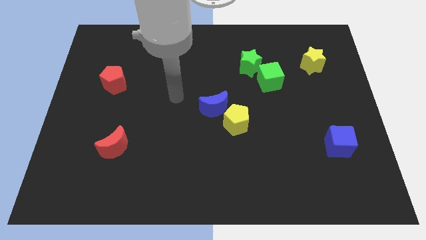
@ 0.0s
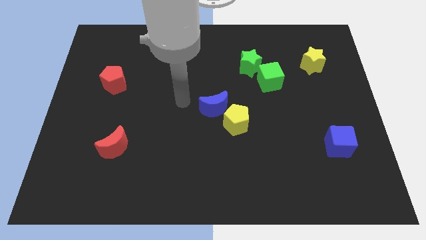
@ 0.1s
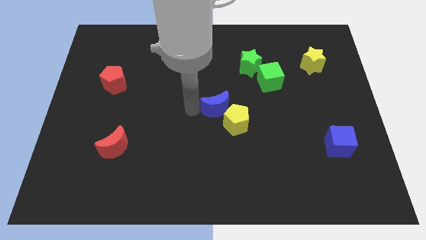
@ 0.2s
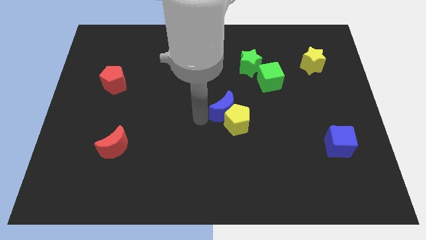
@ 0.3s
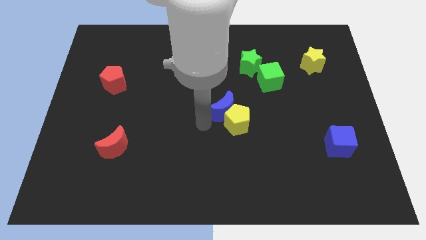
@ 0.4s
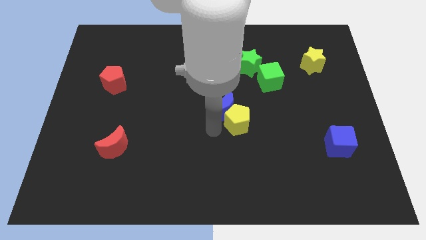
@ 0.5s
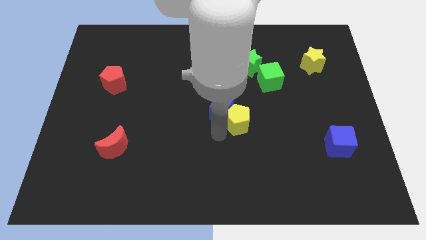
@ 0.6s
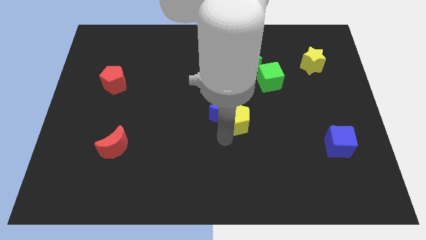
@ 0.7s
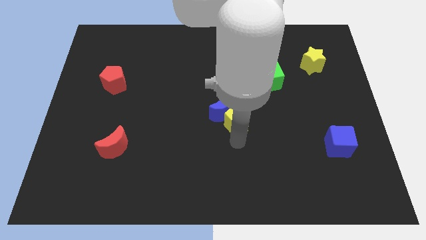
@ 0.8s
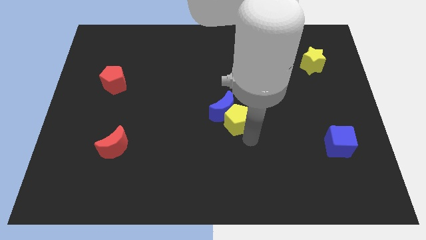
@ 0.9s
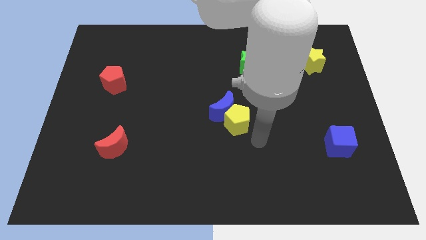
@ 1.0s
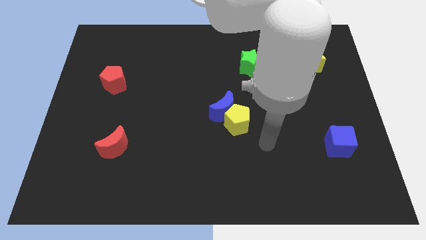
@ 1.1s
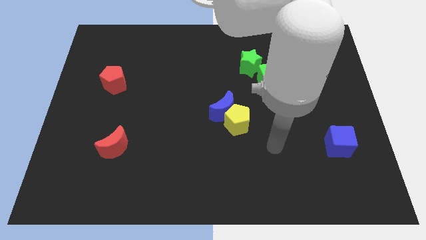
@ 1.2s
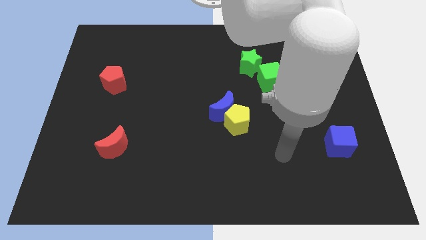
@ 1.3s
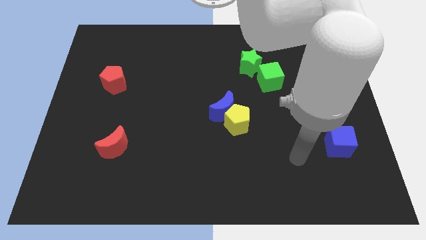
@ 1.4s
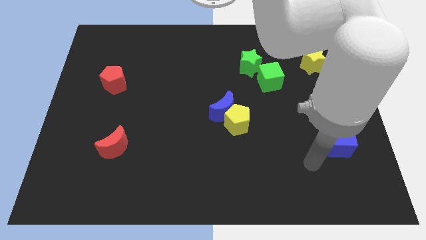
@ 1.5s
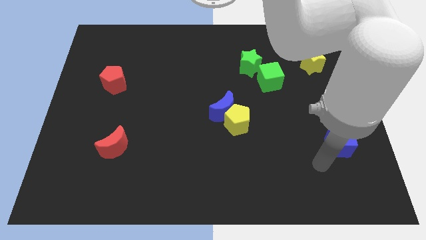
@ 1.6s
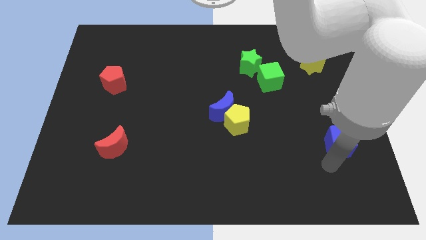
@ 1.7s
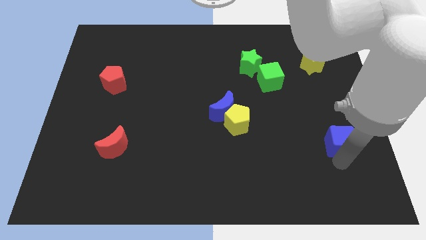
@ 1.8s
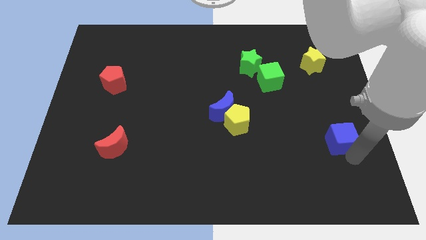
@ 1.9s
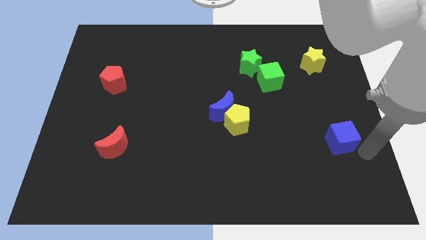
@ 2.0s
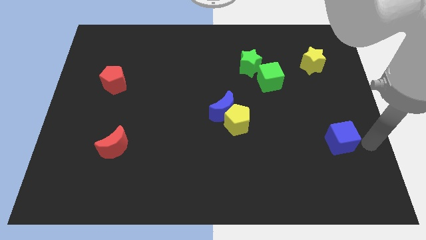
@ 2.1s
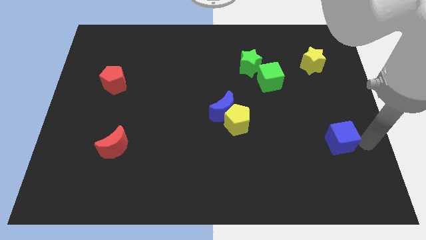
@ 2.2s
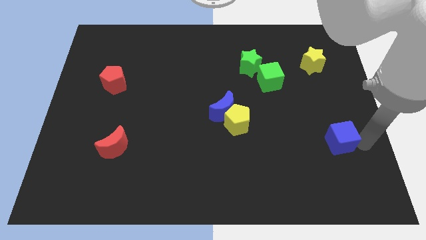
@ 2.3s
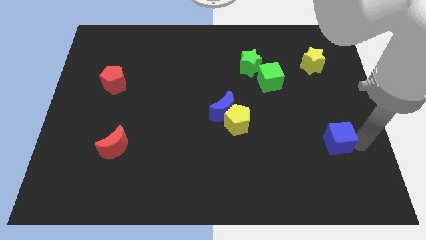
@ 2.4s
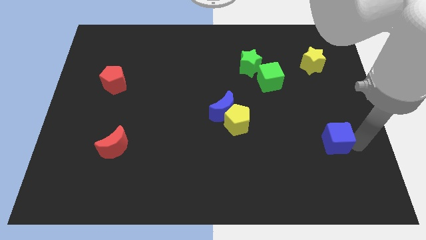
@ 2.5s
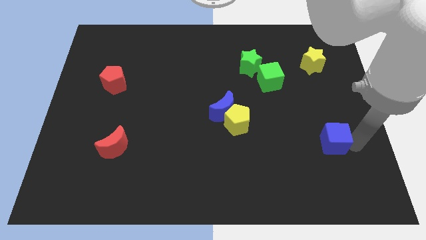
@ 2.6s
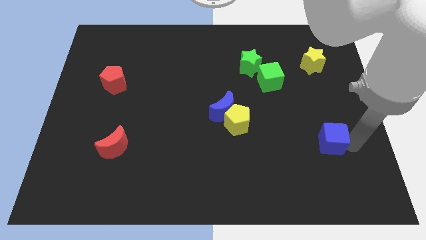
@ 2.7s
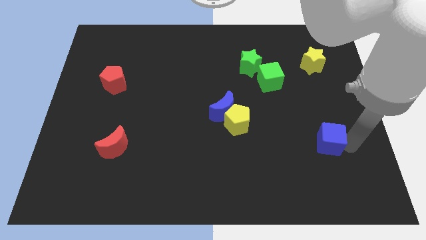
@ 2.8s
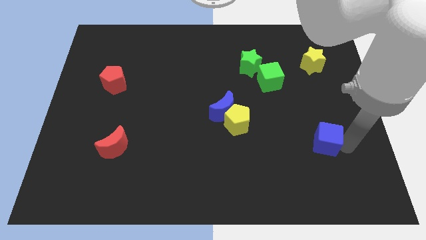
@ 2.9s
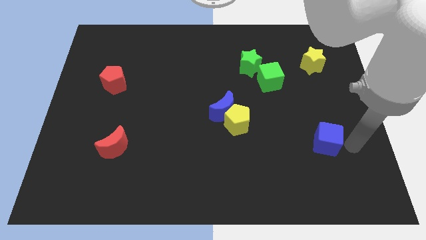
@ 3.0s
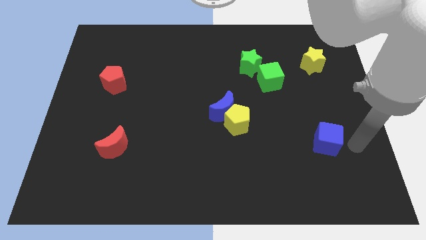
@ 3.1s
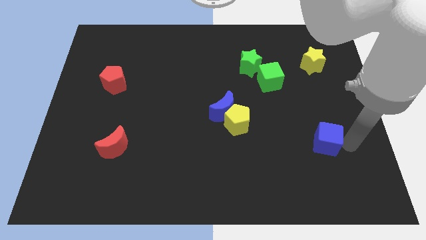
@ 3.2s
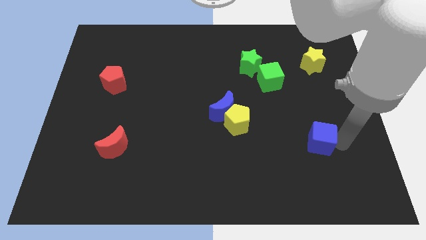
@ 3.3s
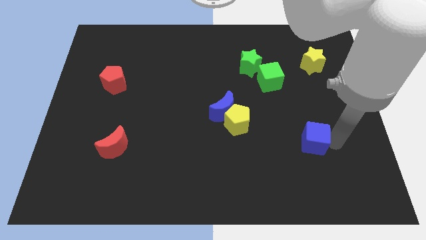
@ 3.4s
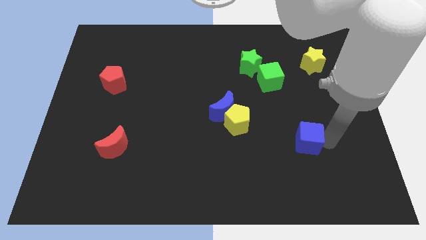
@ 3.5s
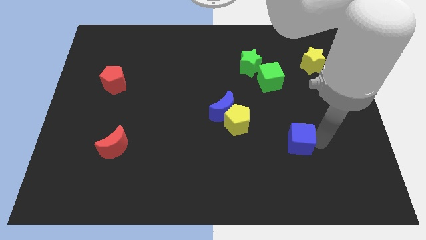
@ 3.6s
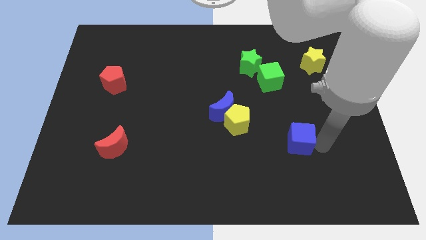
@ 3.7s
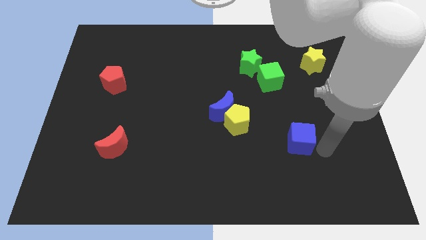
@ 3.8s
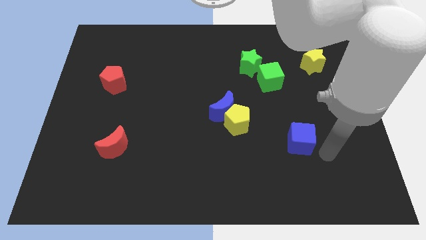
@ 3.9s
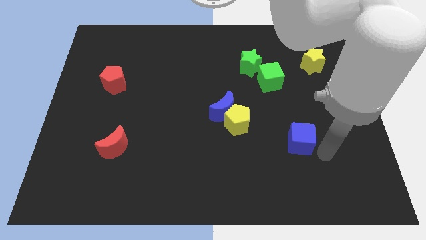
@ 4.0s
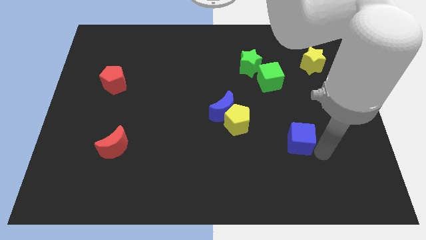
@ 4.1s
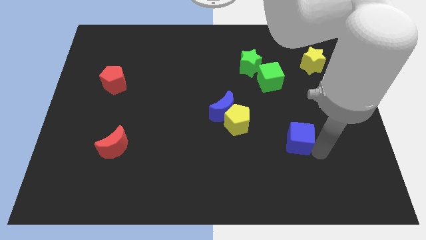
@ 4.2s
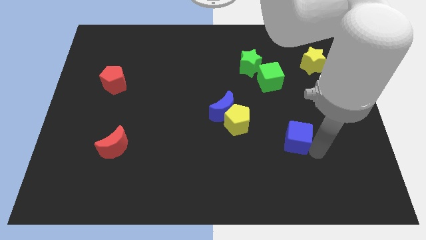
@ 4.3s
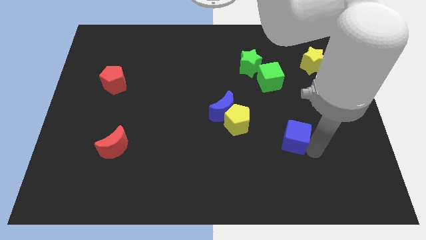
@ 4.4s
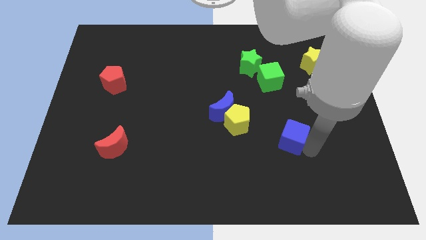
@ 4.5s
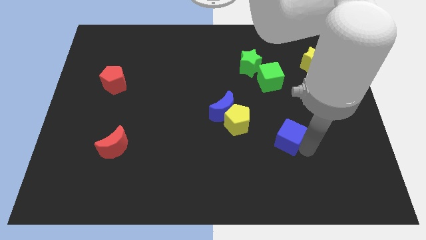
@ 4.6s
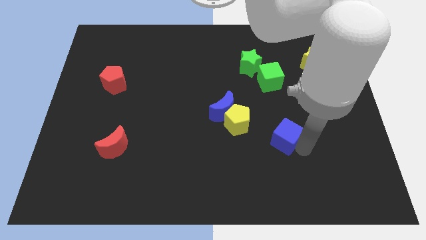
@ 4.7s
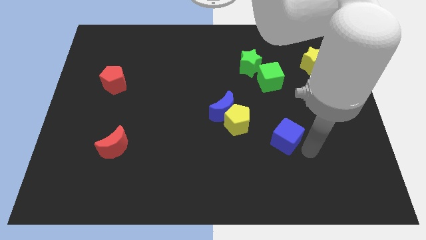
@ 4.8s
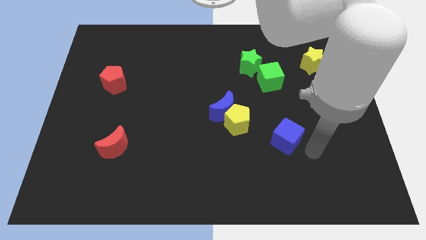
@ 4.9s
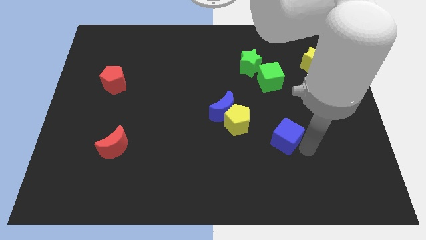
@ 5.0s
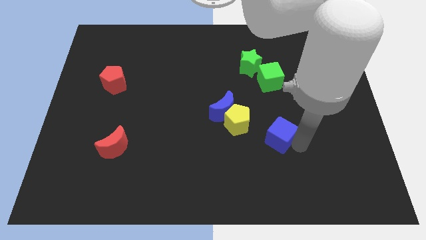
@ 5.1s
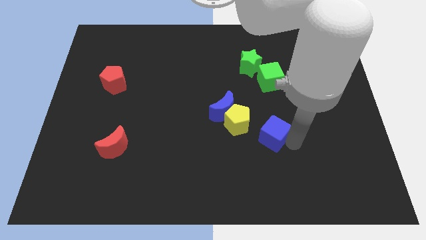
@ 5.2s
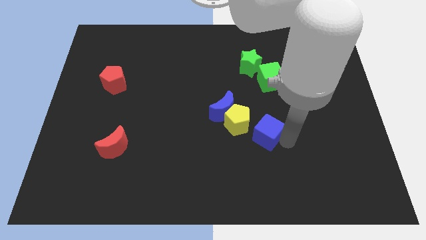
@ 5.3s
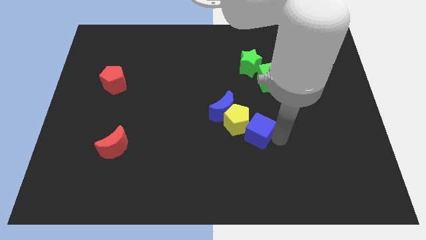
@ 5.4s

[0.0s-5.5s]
move the blue cube next to the yellow pentagon

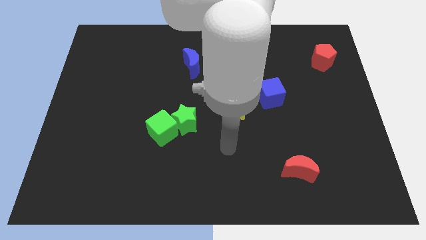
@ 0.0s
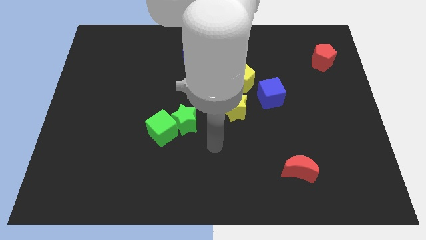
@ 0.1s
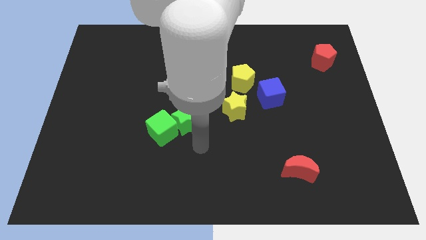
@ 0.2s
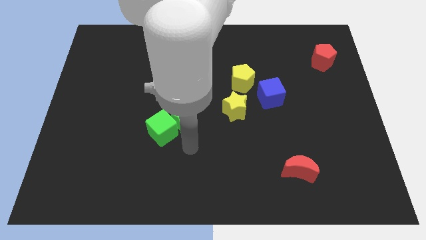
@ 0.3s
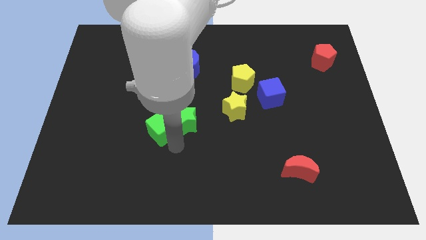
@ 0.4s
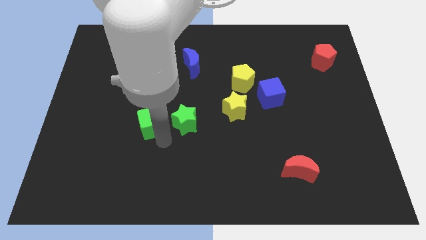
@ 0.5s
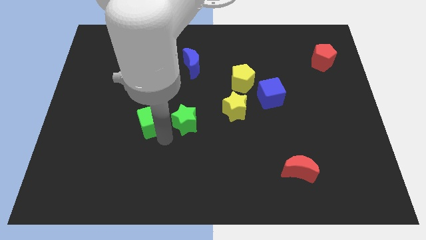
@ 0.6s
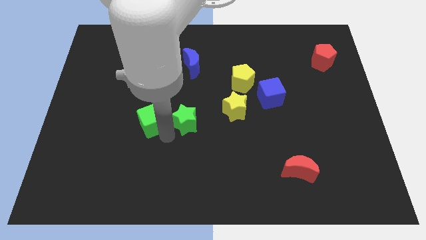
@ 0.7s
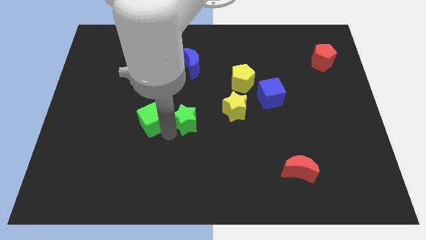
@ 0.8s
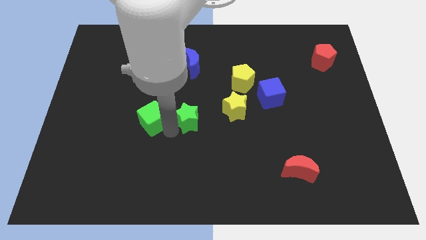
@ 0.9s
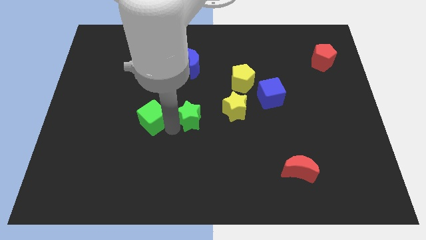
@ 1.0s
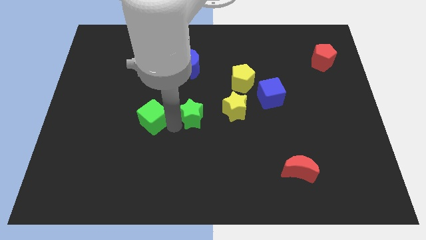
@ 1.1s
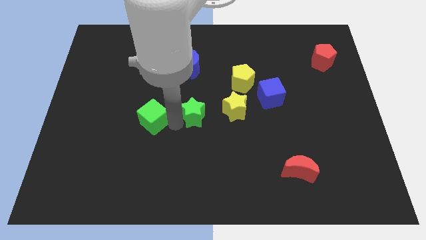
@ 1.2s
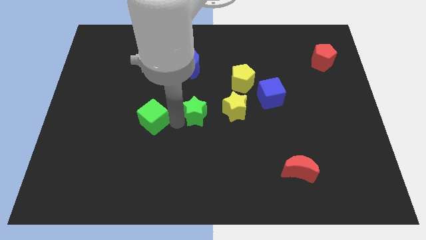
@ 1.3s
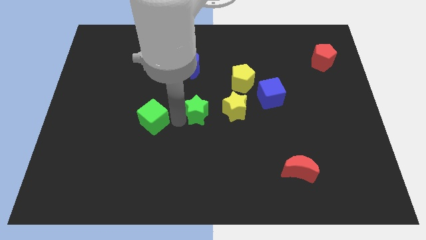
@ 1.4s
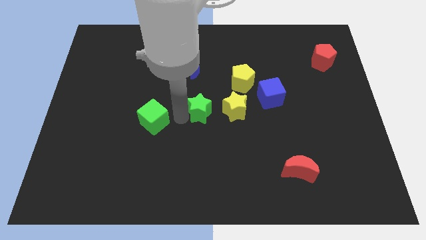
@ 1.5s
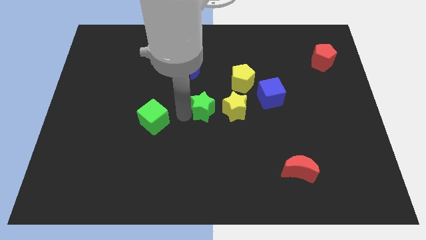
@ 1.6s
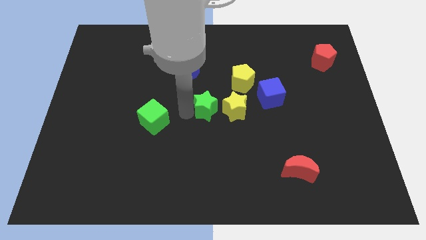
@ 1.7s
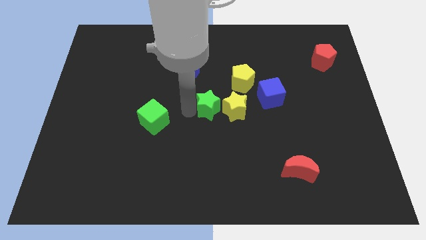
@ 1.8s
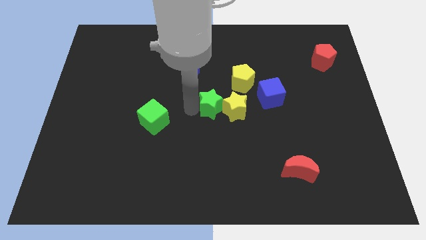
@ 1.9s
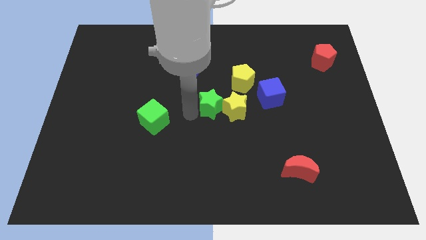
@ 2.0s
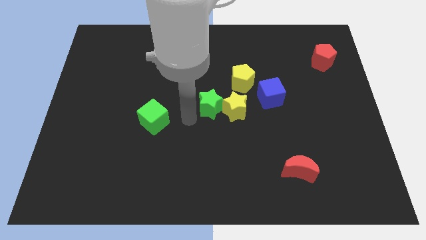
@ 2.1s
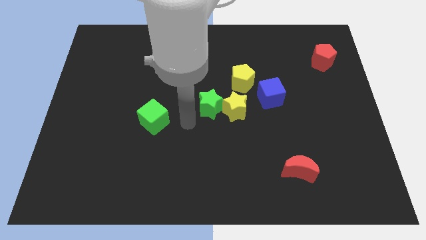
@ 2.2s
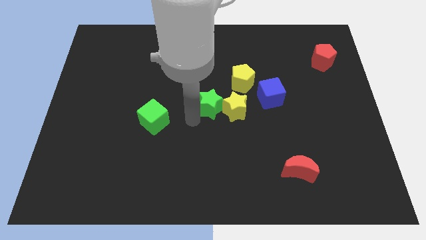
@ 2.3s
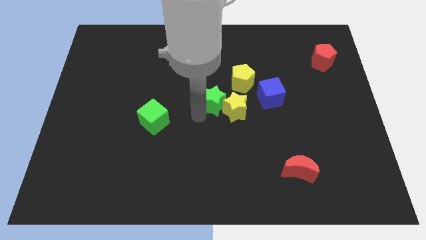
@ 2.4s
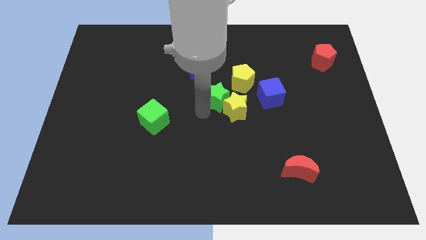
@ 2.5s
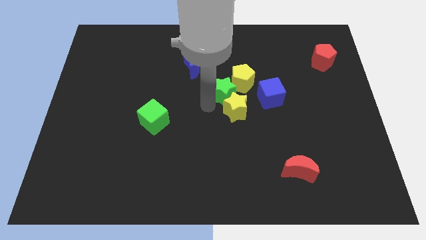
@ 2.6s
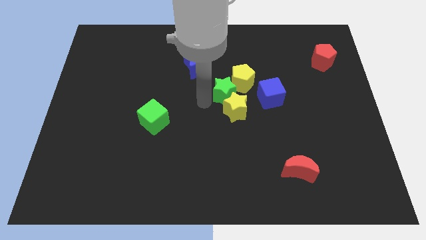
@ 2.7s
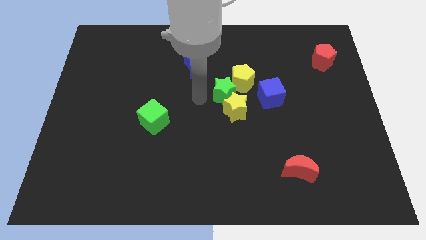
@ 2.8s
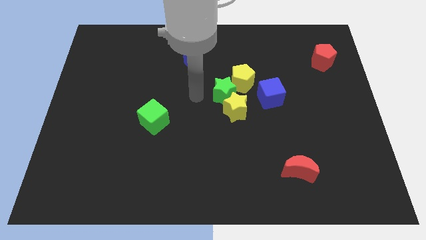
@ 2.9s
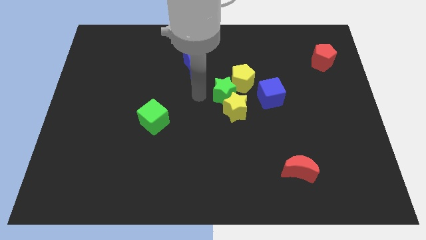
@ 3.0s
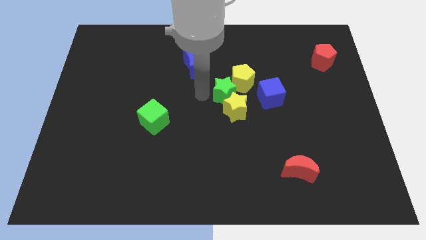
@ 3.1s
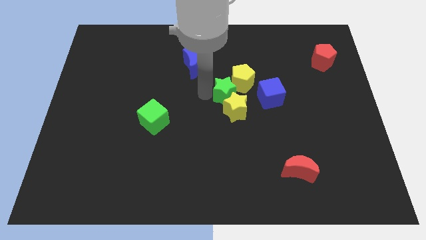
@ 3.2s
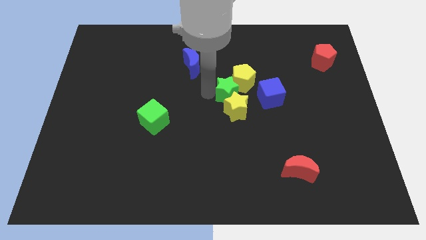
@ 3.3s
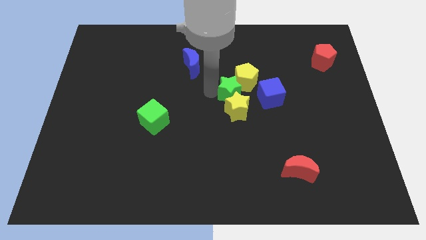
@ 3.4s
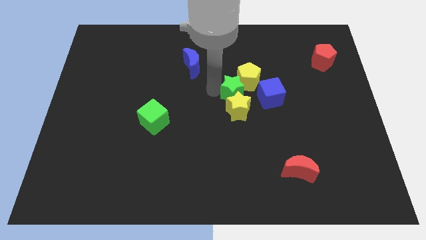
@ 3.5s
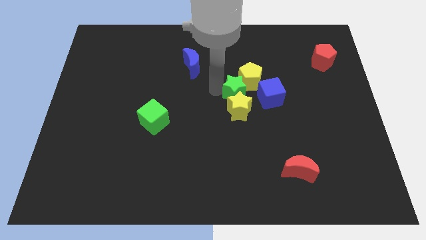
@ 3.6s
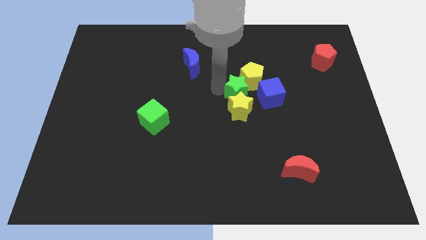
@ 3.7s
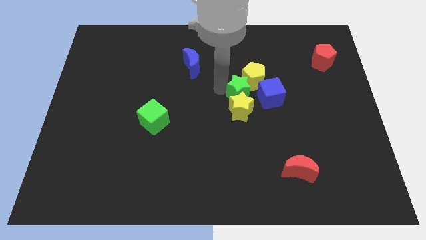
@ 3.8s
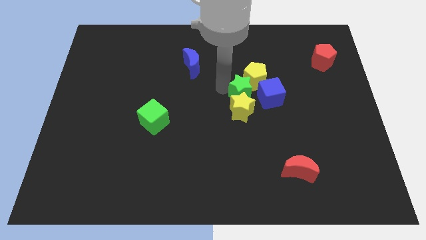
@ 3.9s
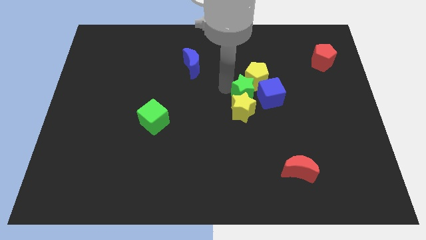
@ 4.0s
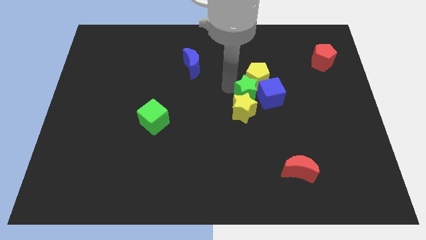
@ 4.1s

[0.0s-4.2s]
push the green star close to the blue cube
